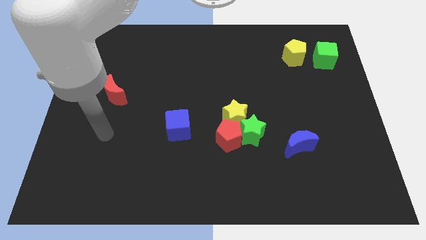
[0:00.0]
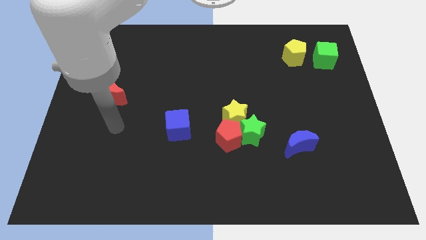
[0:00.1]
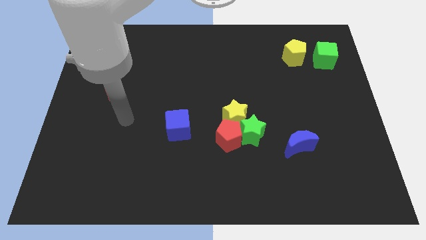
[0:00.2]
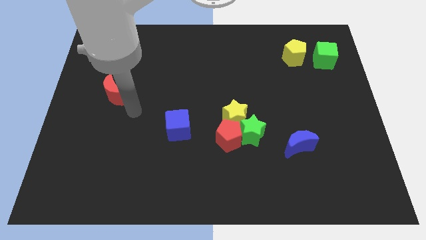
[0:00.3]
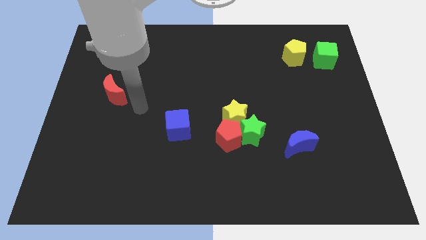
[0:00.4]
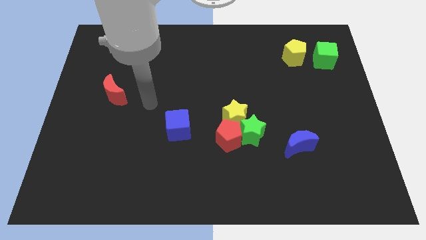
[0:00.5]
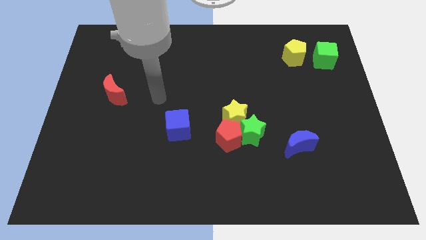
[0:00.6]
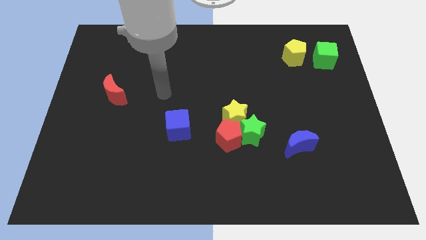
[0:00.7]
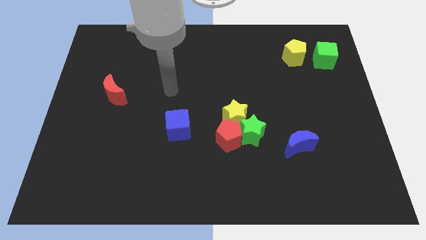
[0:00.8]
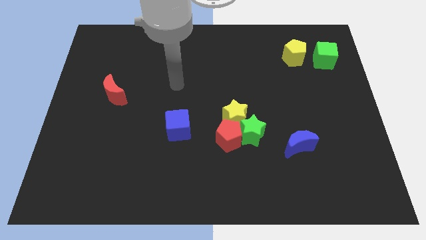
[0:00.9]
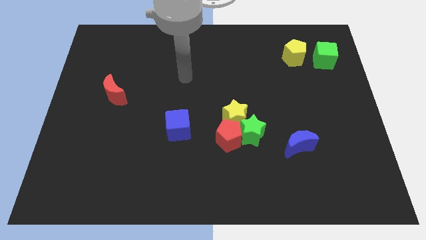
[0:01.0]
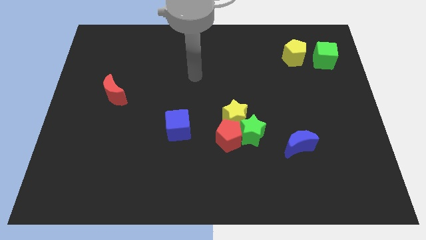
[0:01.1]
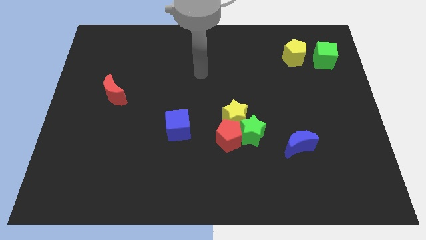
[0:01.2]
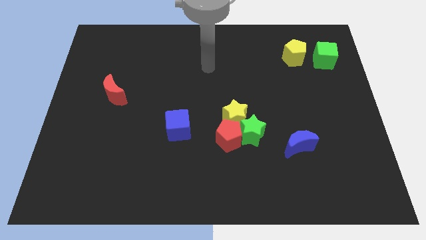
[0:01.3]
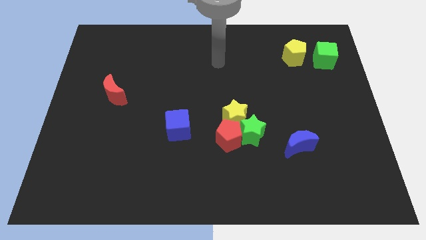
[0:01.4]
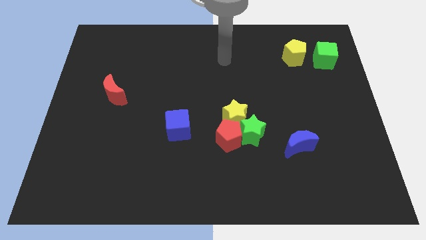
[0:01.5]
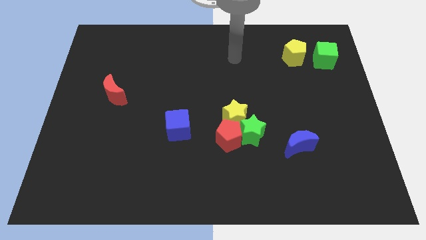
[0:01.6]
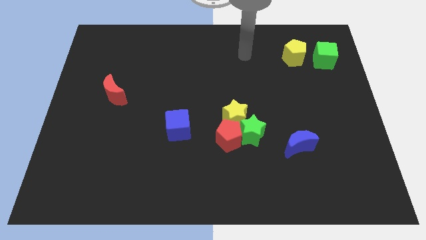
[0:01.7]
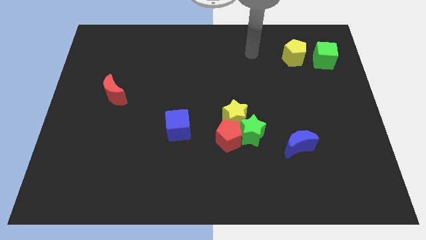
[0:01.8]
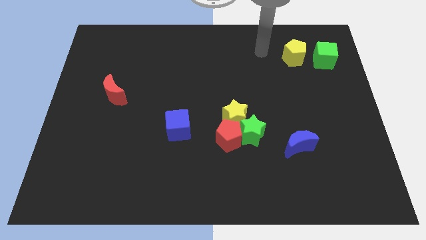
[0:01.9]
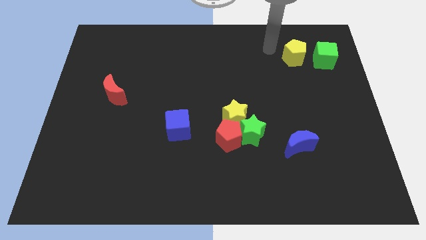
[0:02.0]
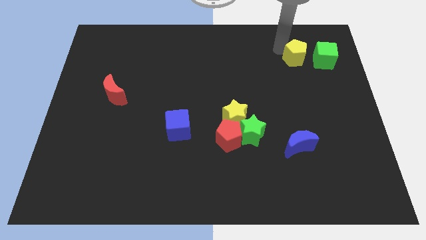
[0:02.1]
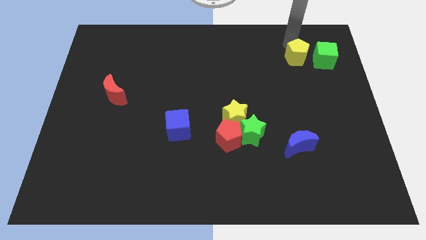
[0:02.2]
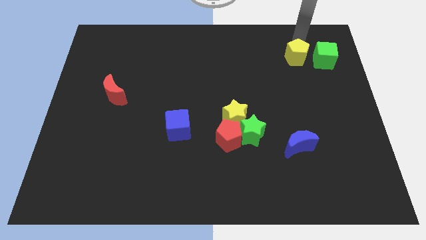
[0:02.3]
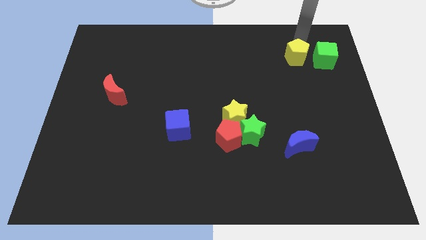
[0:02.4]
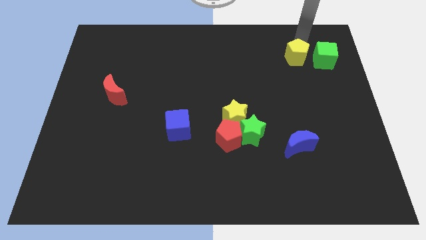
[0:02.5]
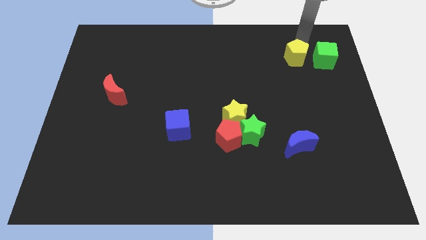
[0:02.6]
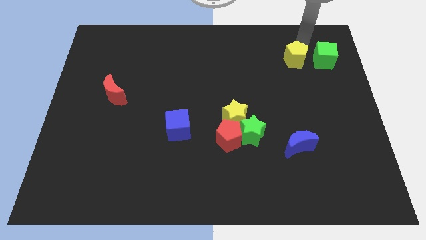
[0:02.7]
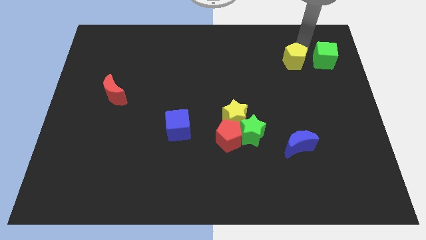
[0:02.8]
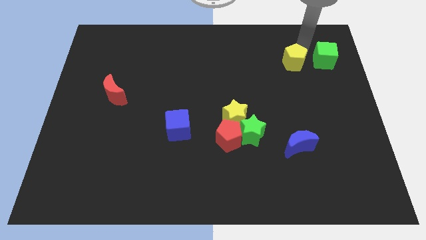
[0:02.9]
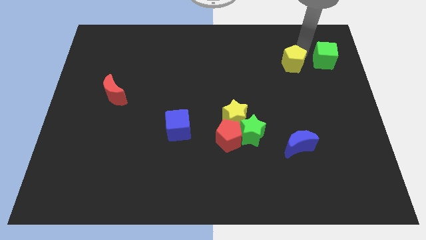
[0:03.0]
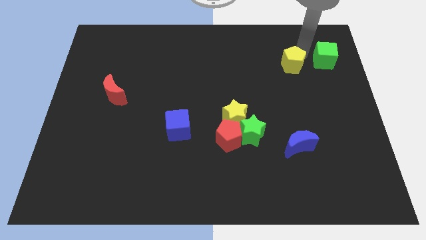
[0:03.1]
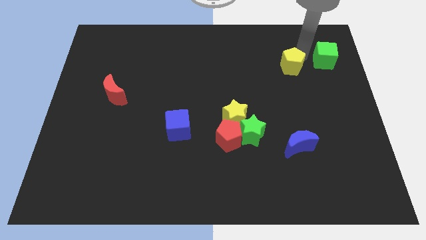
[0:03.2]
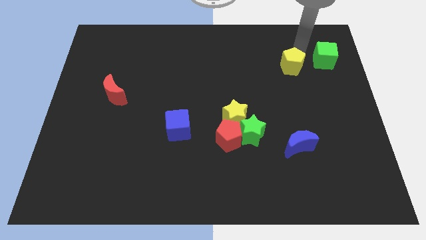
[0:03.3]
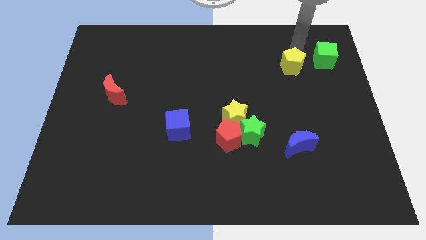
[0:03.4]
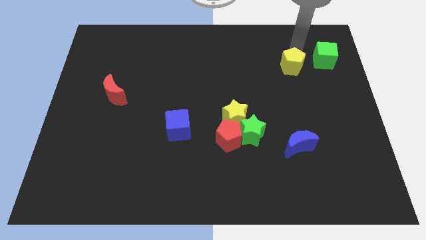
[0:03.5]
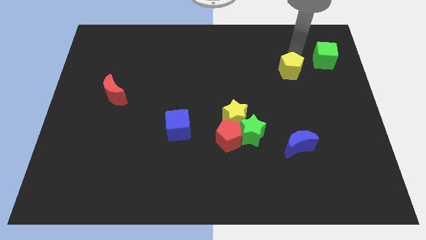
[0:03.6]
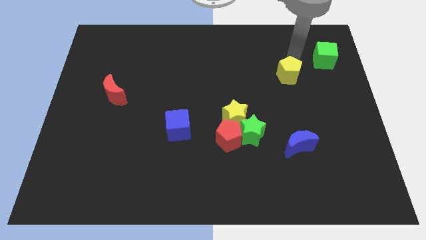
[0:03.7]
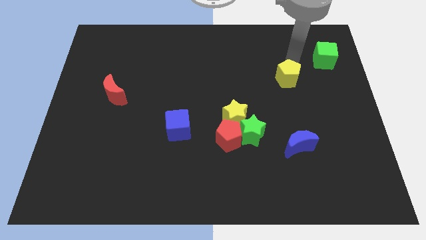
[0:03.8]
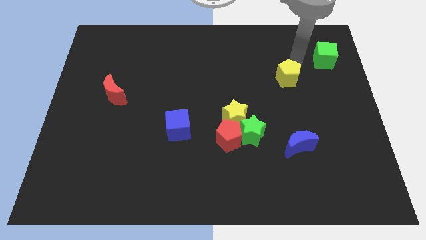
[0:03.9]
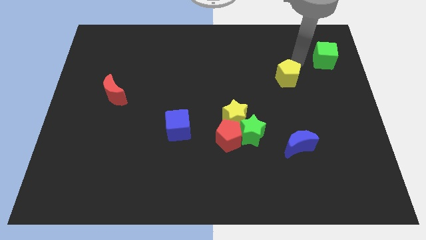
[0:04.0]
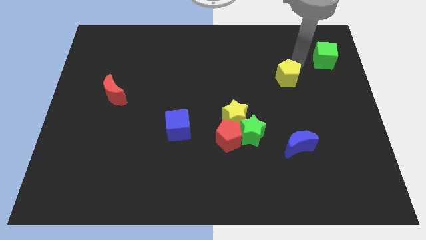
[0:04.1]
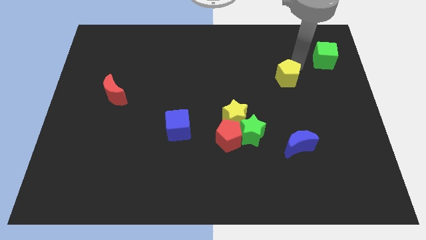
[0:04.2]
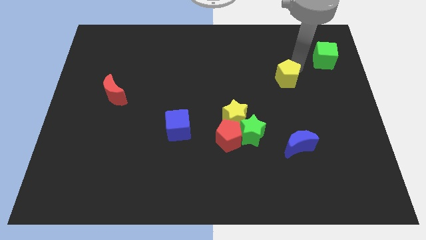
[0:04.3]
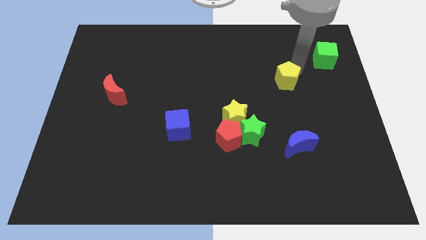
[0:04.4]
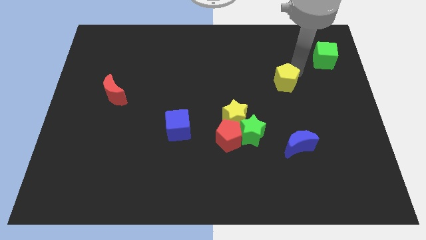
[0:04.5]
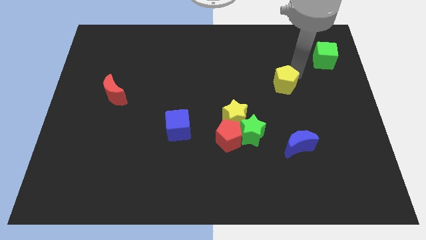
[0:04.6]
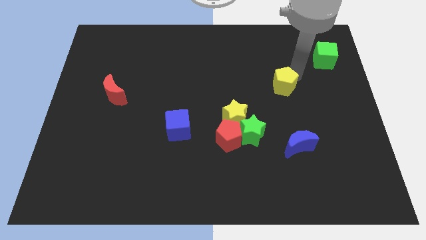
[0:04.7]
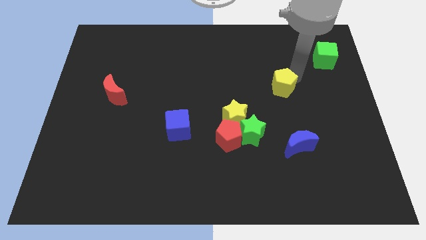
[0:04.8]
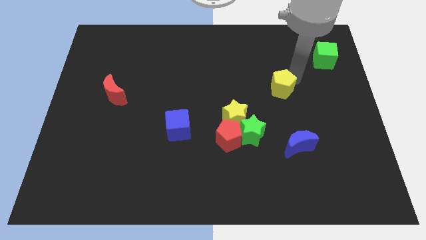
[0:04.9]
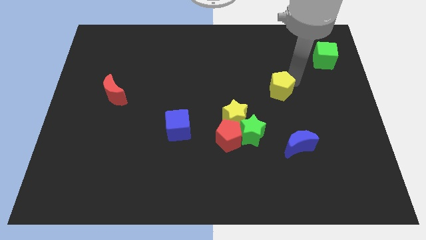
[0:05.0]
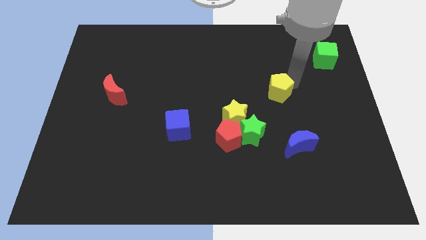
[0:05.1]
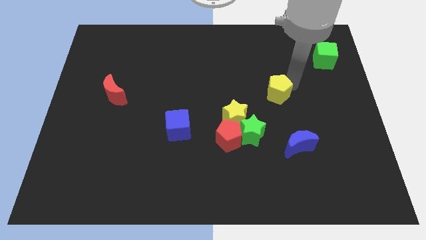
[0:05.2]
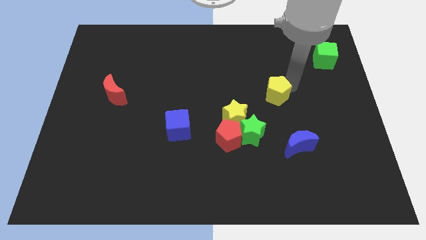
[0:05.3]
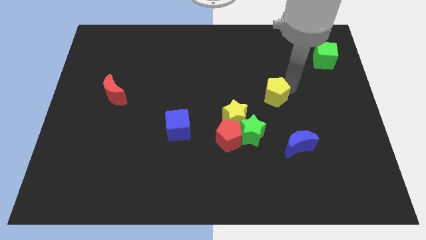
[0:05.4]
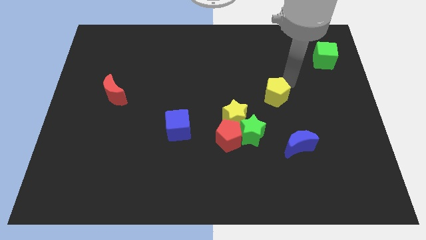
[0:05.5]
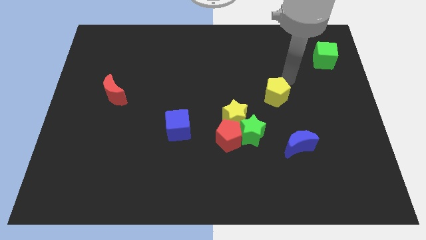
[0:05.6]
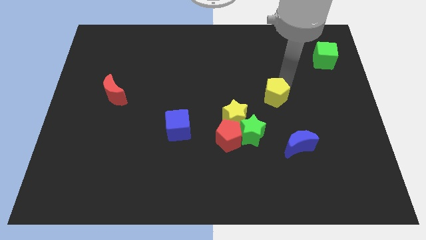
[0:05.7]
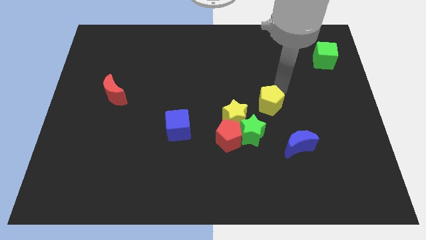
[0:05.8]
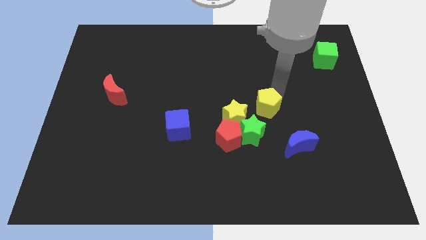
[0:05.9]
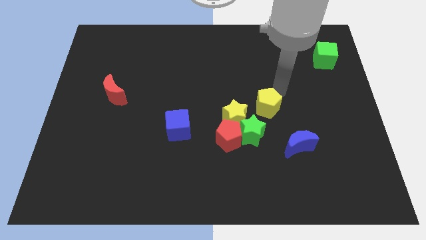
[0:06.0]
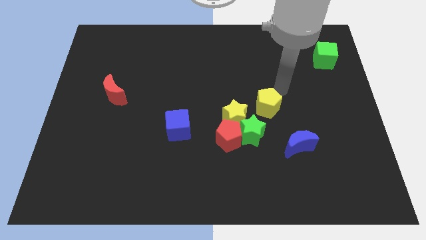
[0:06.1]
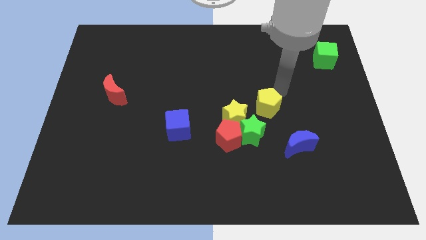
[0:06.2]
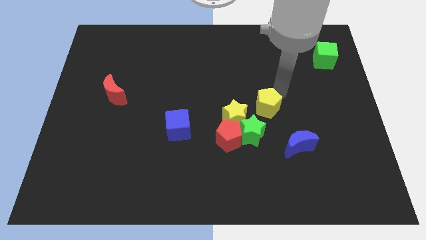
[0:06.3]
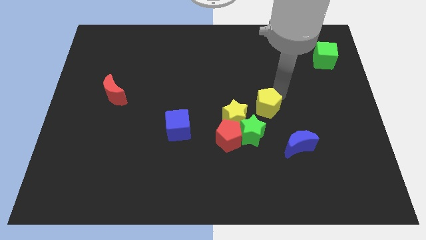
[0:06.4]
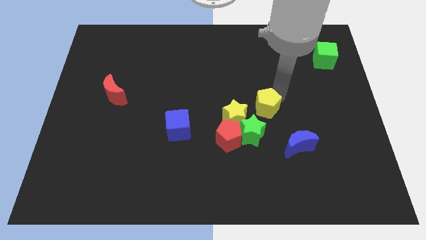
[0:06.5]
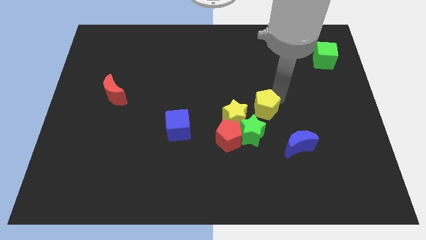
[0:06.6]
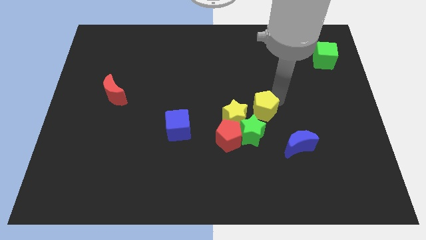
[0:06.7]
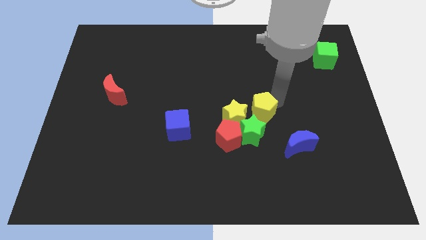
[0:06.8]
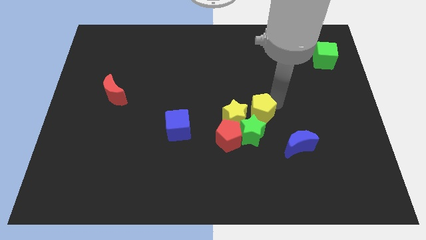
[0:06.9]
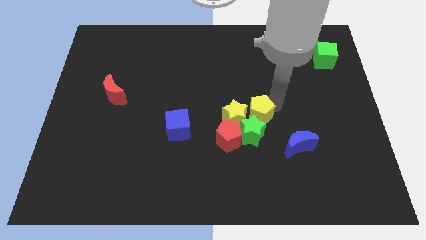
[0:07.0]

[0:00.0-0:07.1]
put the yellow pentagon to the green star
